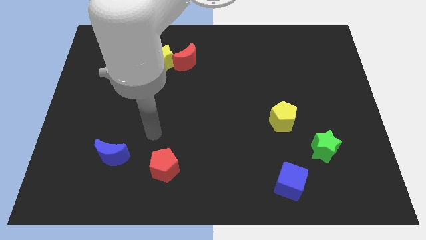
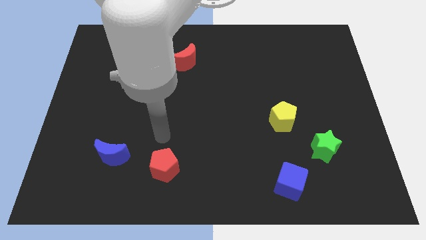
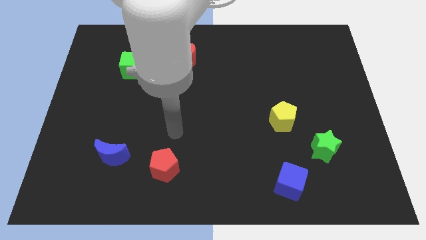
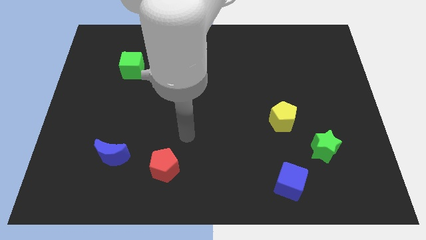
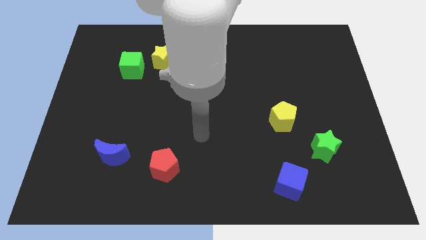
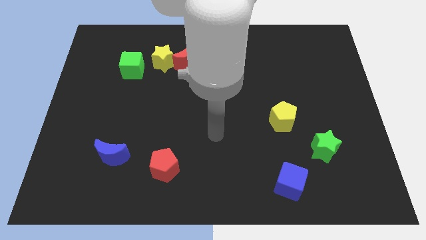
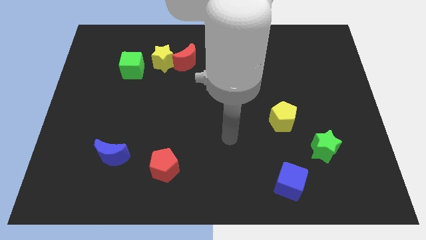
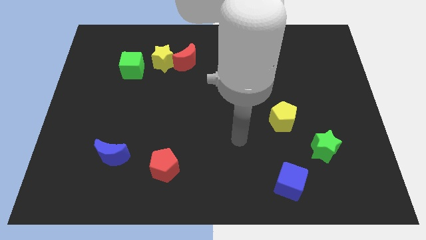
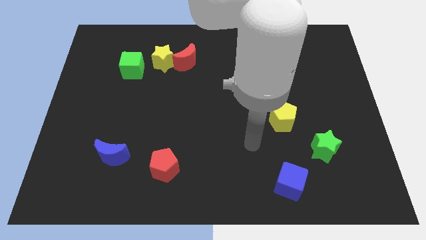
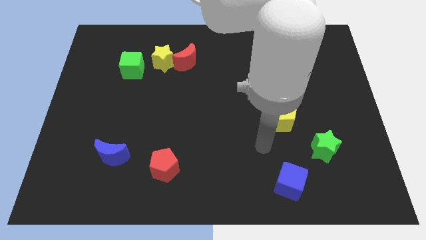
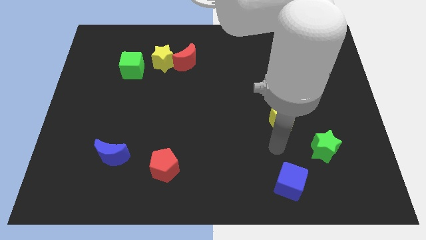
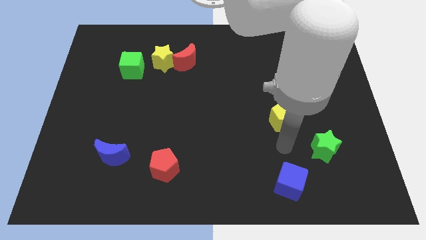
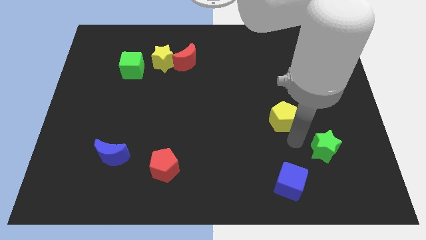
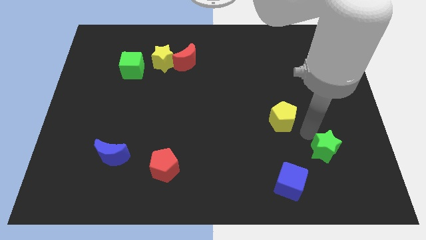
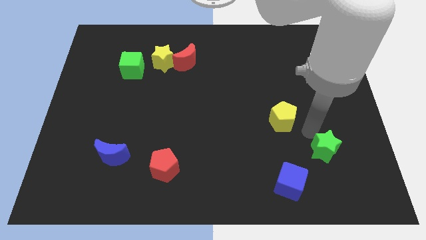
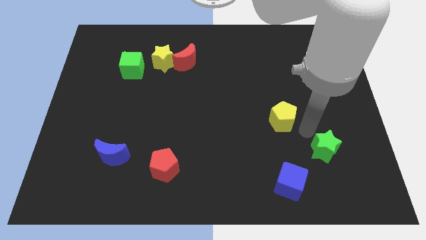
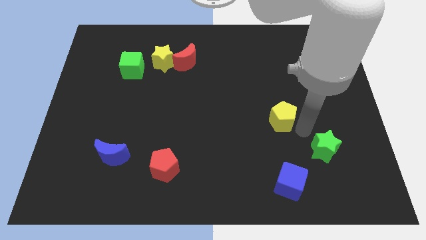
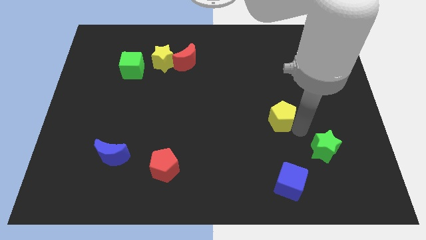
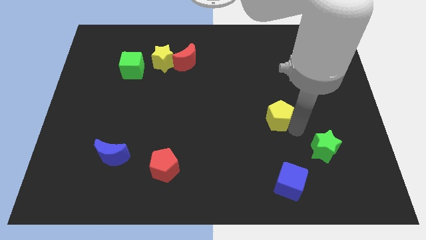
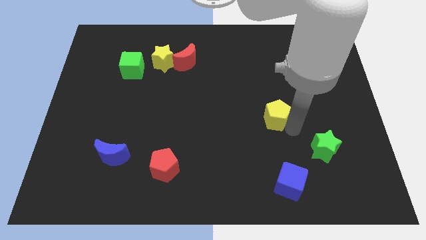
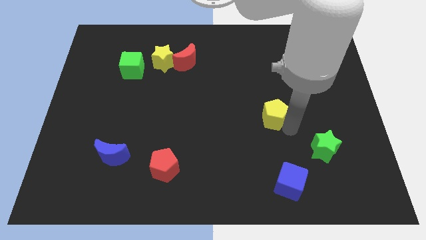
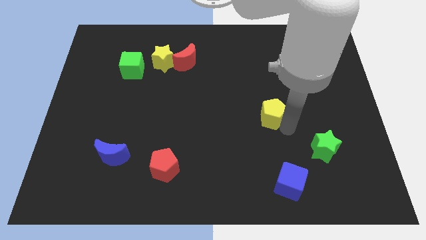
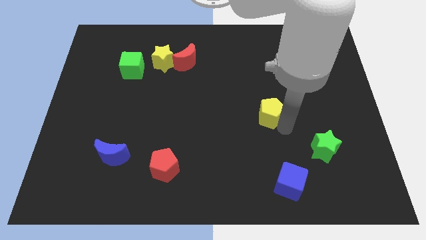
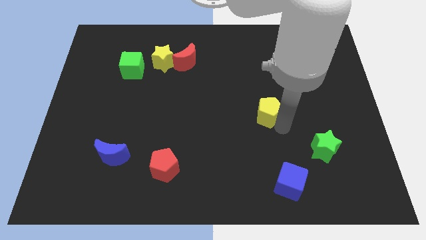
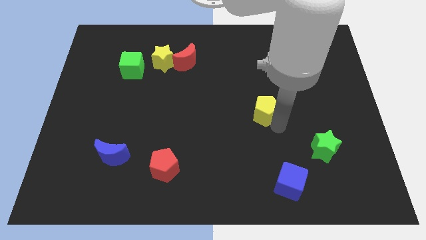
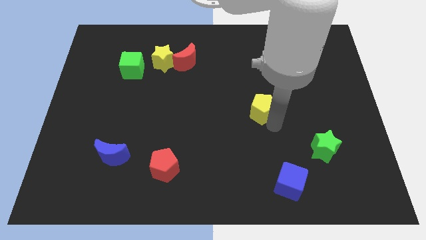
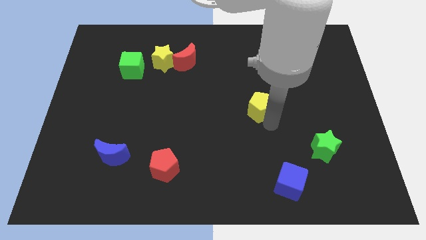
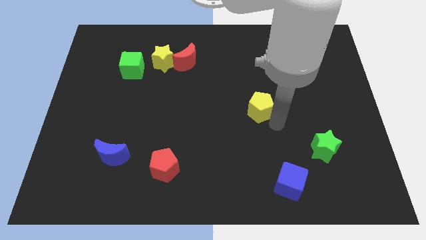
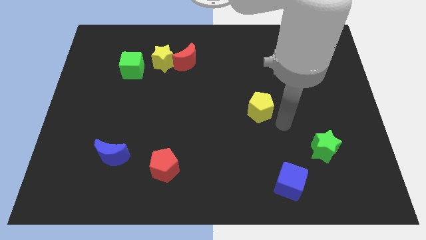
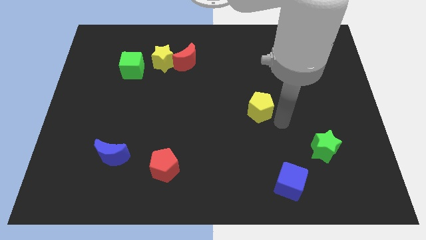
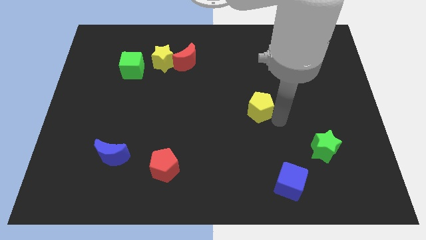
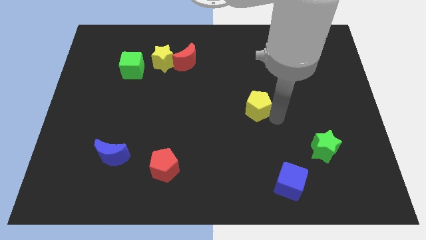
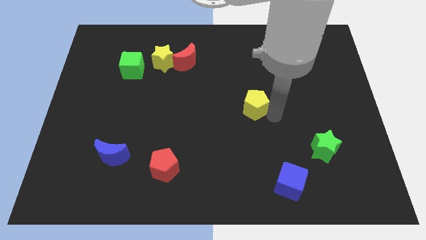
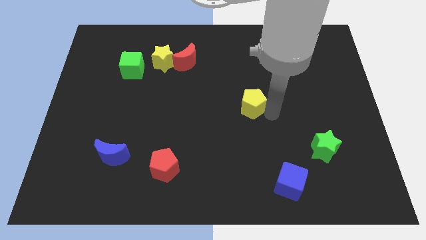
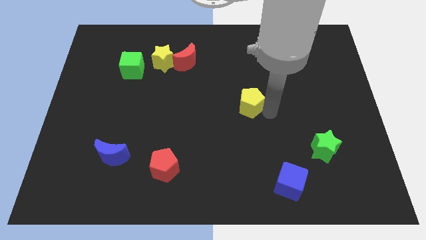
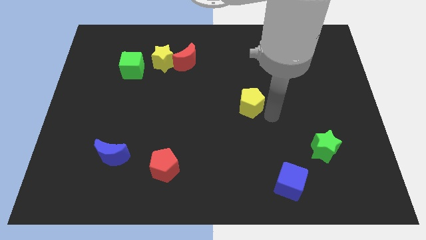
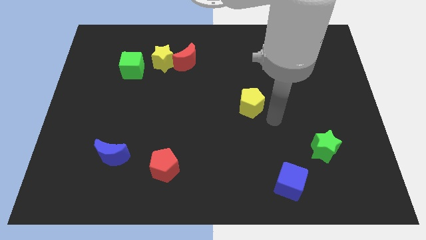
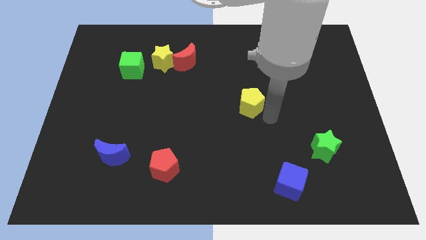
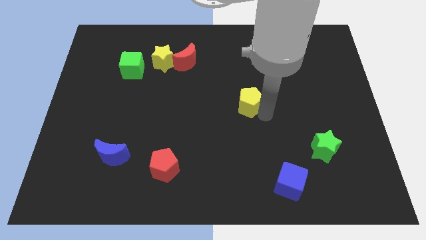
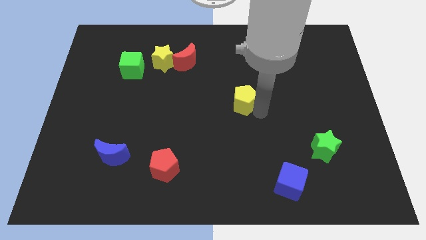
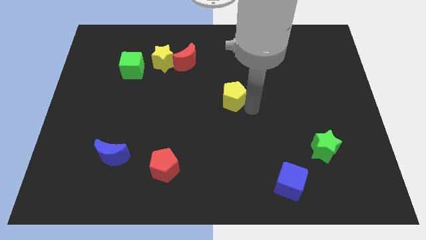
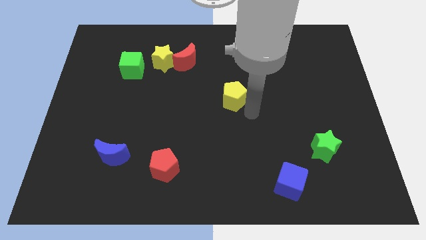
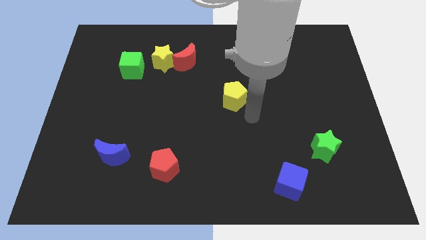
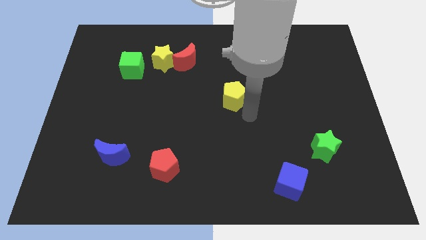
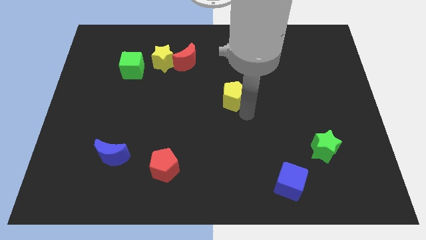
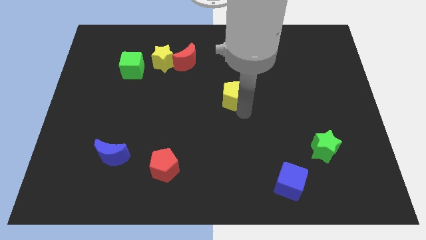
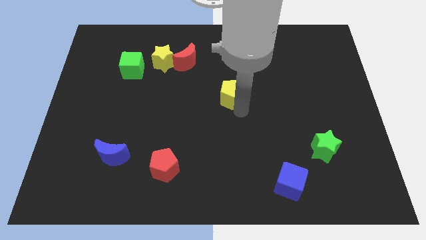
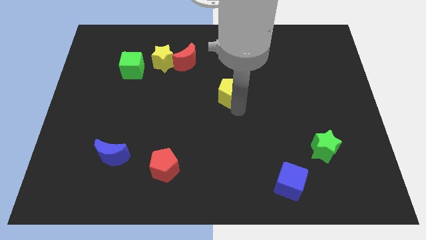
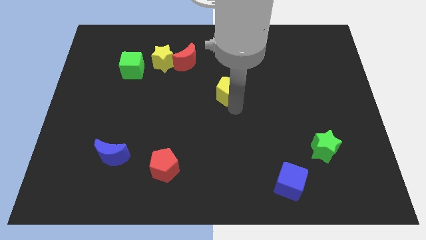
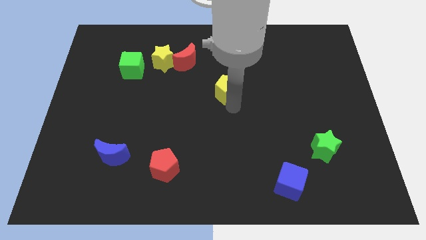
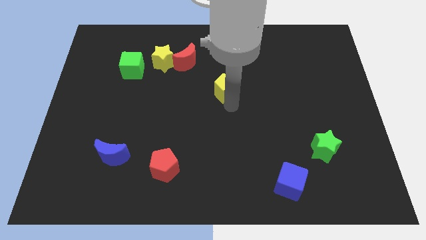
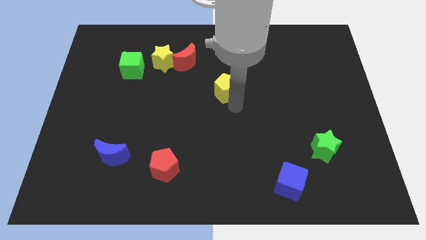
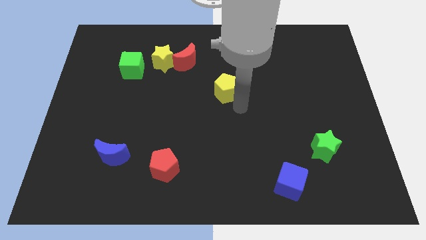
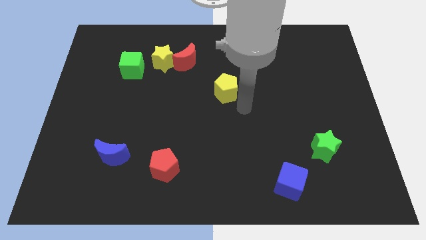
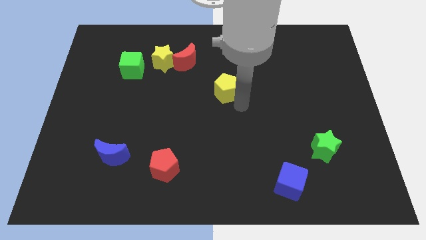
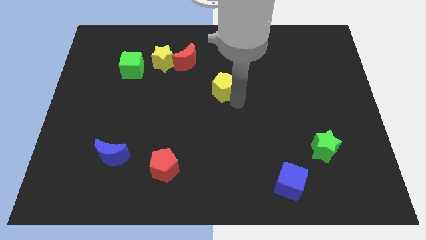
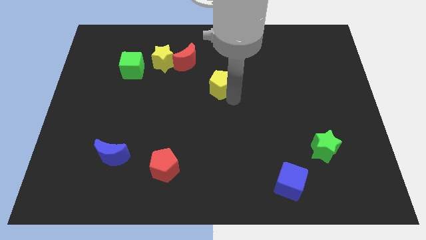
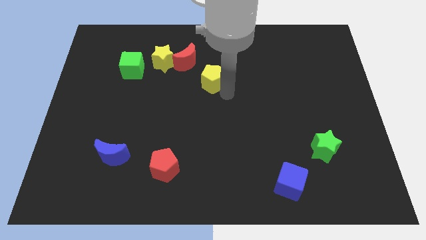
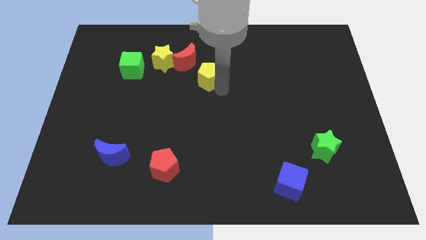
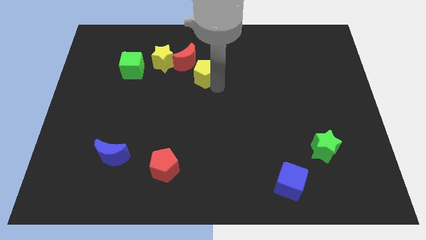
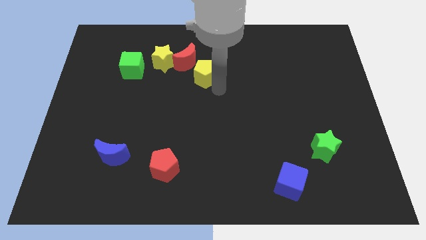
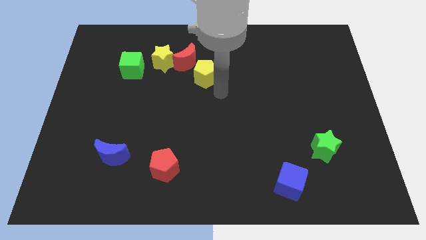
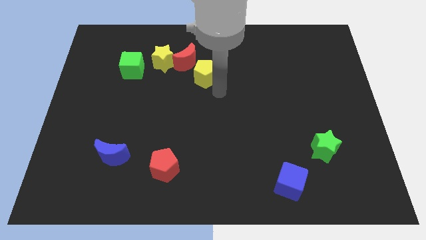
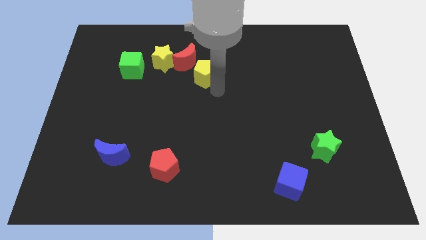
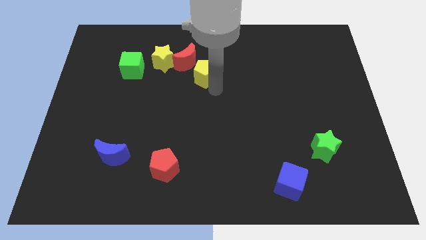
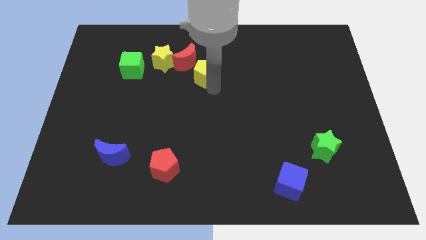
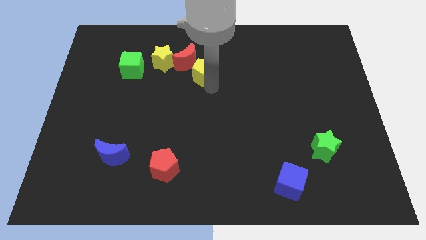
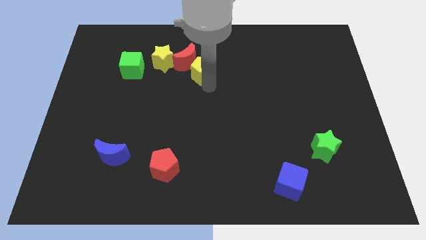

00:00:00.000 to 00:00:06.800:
slide the yellow pentagon next to the red moon
